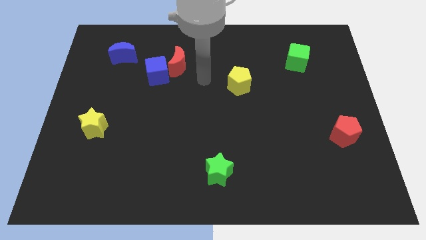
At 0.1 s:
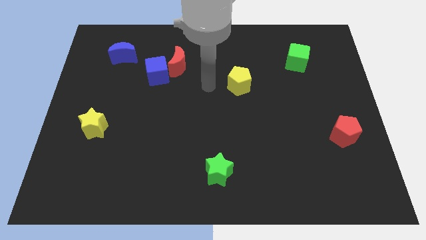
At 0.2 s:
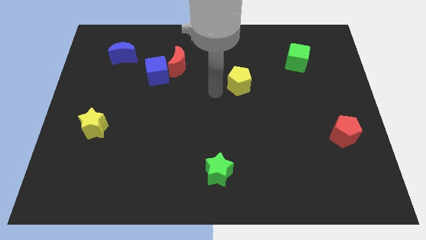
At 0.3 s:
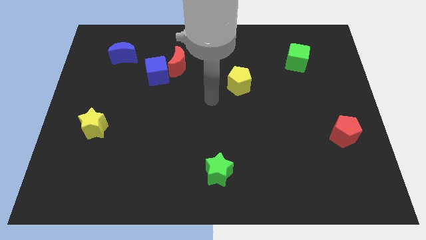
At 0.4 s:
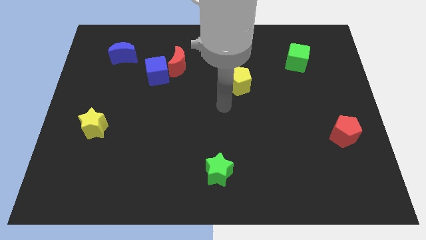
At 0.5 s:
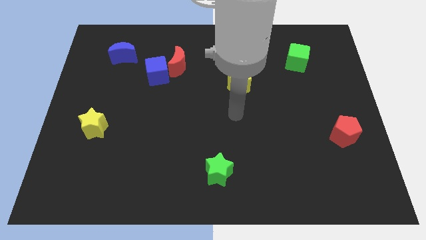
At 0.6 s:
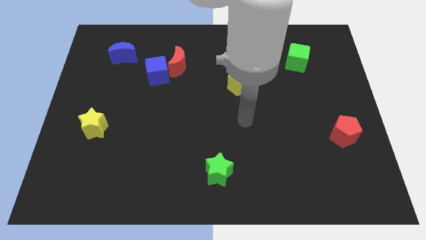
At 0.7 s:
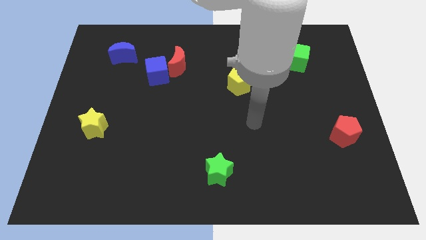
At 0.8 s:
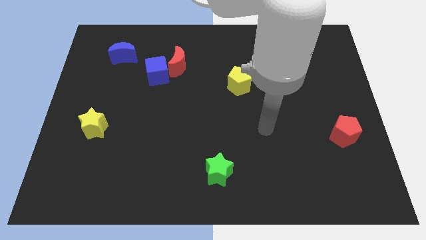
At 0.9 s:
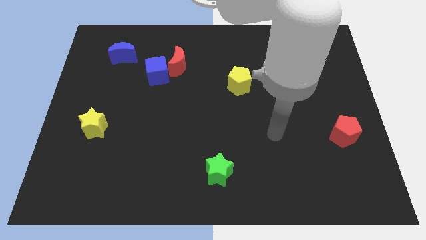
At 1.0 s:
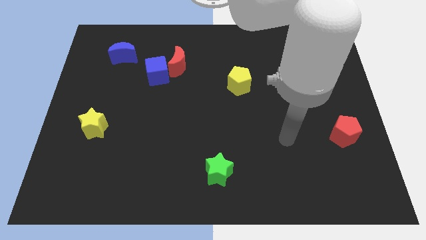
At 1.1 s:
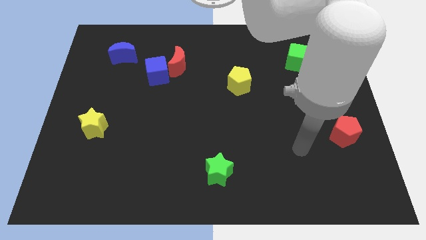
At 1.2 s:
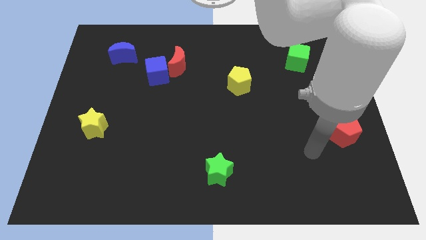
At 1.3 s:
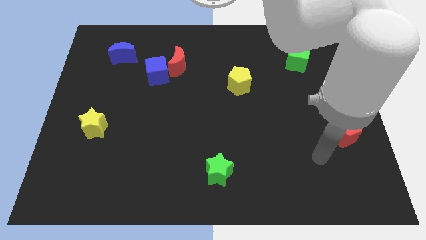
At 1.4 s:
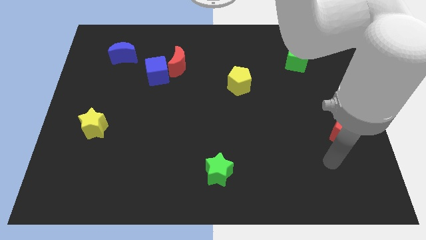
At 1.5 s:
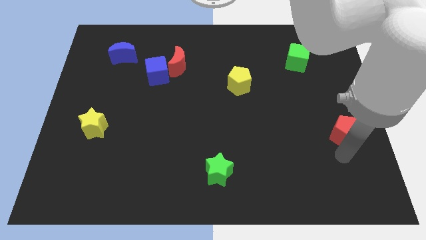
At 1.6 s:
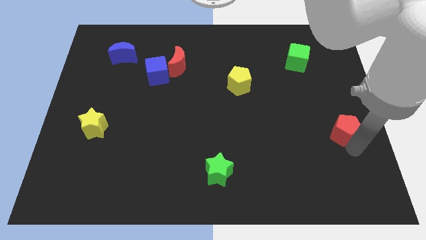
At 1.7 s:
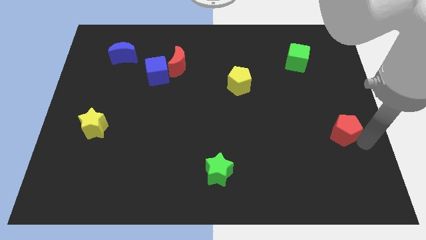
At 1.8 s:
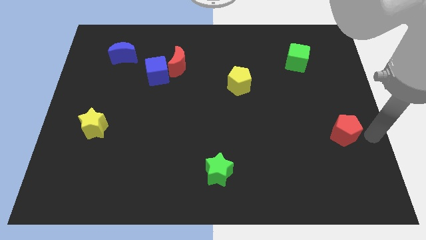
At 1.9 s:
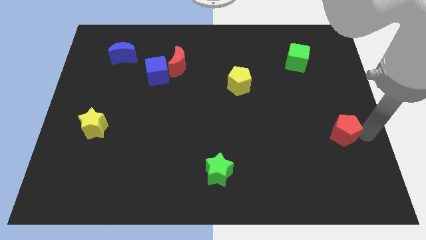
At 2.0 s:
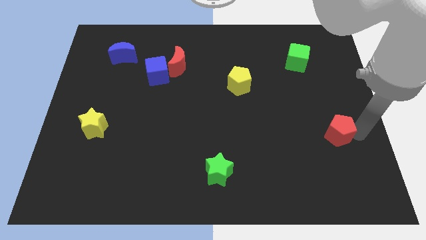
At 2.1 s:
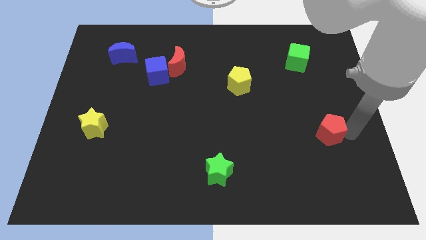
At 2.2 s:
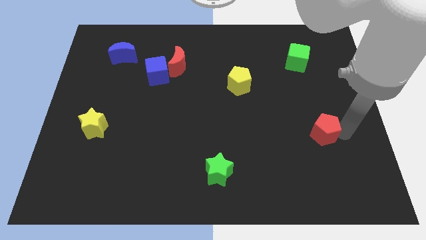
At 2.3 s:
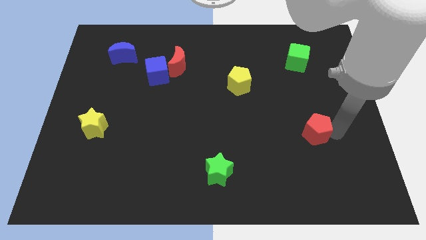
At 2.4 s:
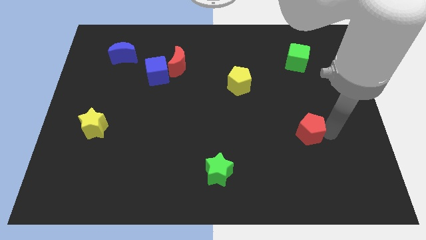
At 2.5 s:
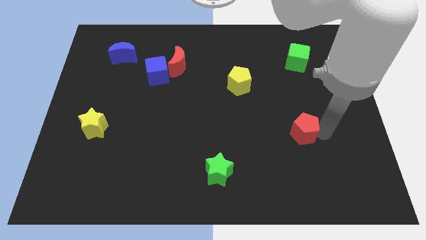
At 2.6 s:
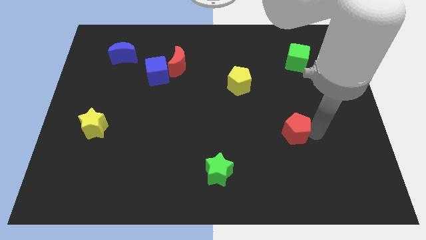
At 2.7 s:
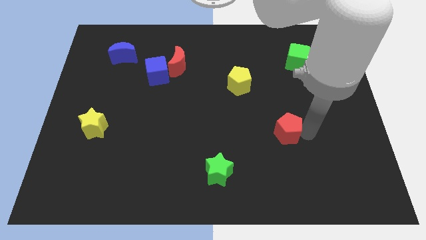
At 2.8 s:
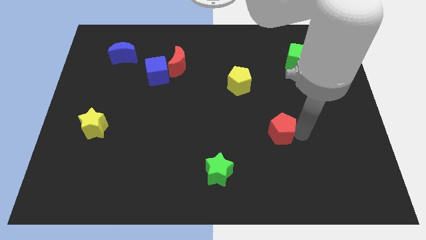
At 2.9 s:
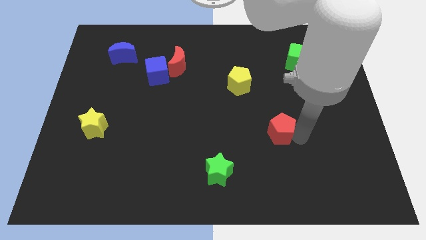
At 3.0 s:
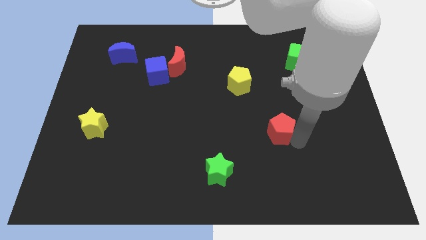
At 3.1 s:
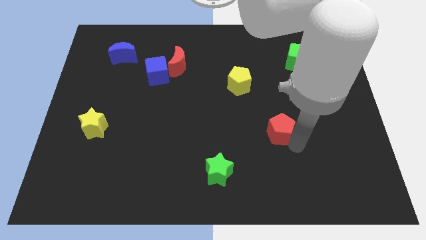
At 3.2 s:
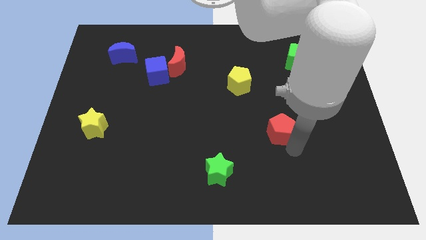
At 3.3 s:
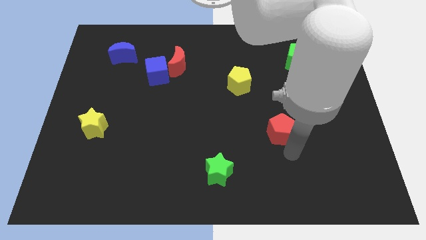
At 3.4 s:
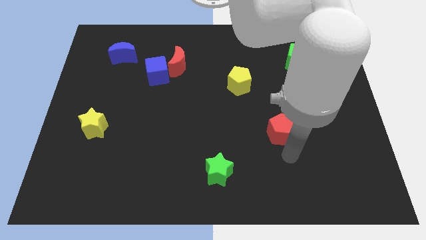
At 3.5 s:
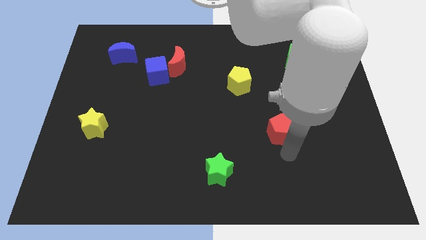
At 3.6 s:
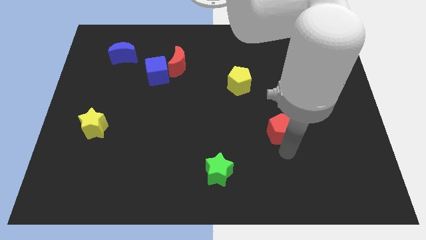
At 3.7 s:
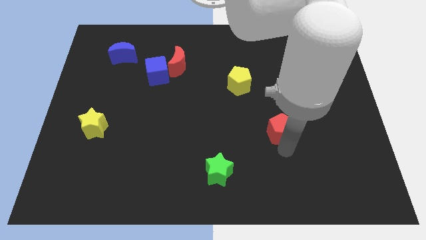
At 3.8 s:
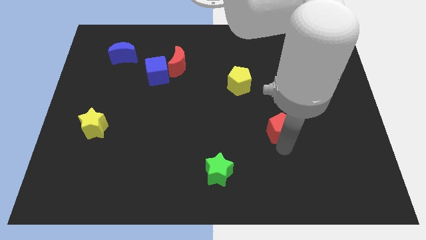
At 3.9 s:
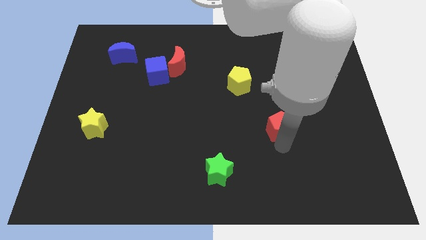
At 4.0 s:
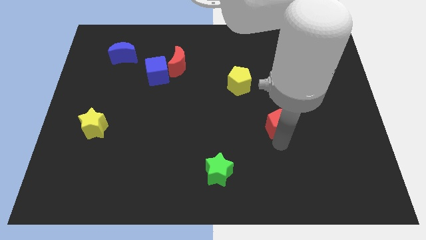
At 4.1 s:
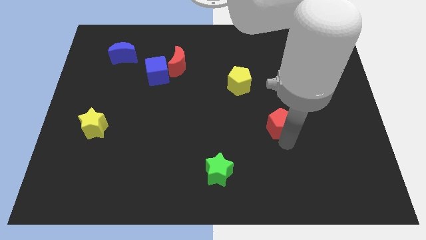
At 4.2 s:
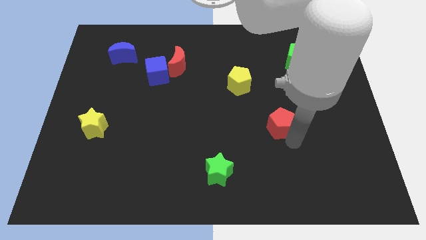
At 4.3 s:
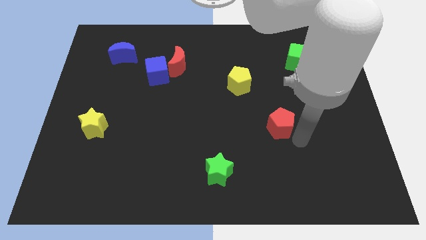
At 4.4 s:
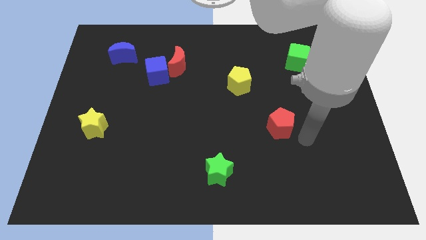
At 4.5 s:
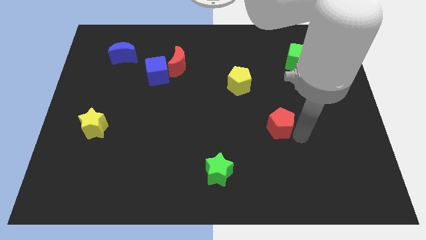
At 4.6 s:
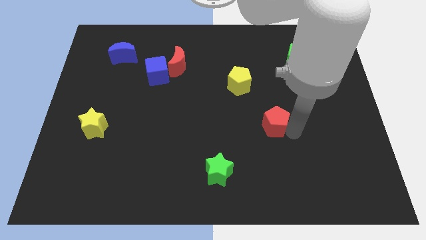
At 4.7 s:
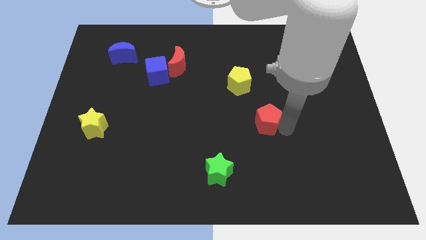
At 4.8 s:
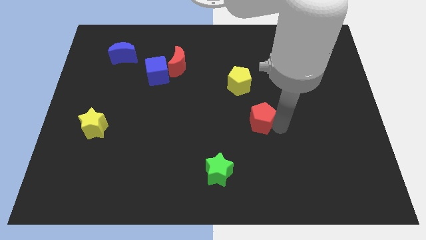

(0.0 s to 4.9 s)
move the red pentagon to the middle

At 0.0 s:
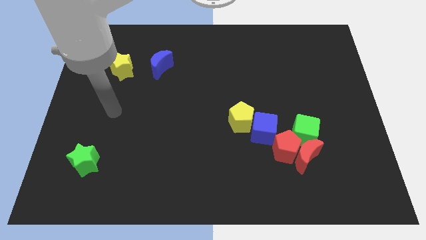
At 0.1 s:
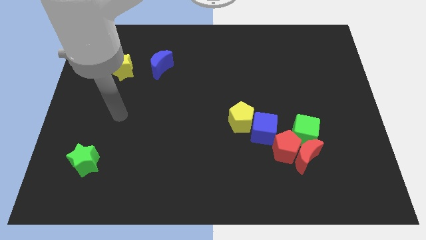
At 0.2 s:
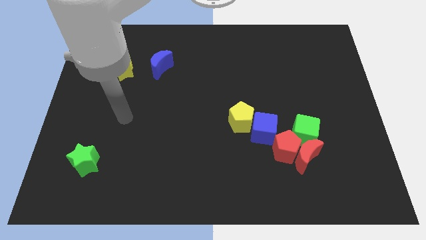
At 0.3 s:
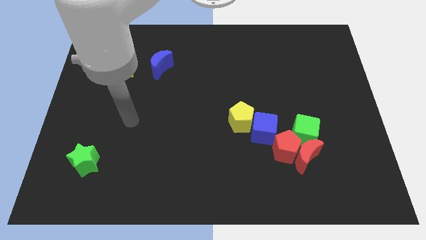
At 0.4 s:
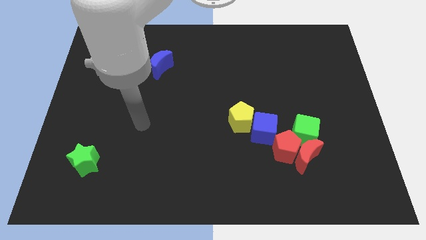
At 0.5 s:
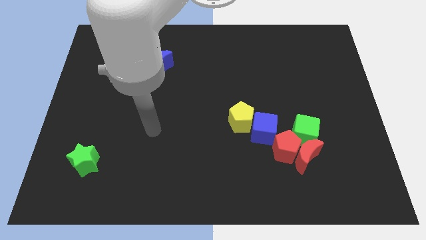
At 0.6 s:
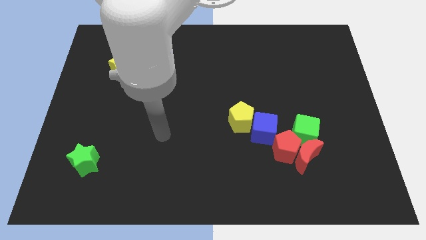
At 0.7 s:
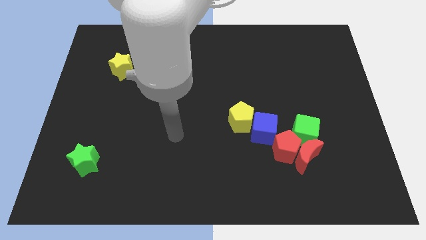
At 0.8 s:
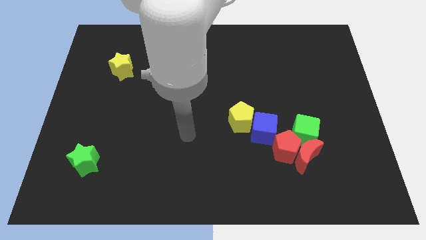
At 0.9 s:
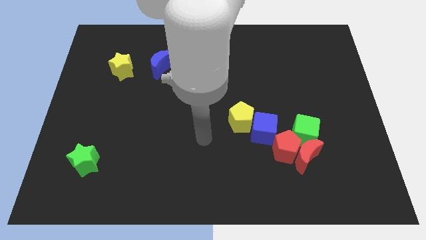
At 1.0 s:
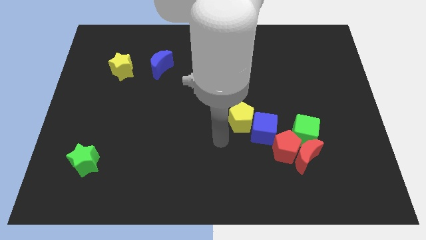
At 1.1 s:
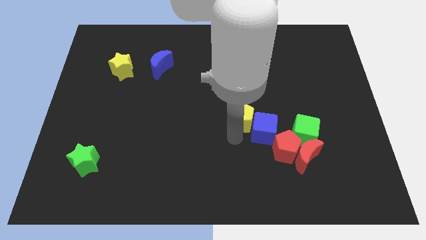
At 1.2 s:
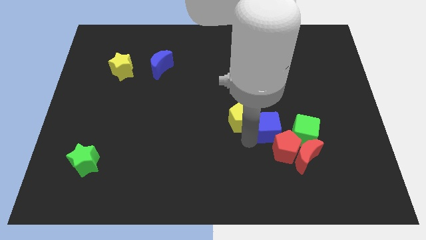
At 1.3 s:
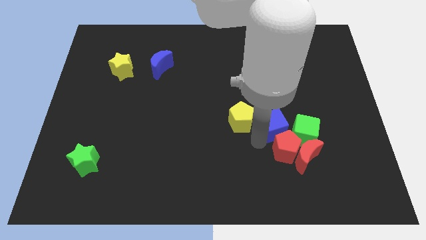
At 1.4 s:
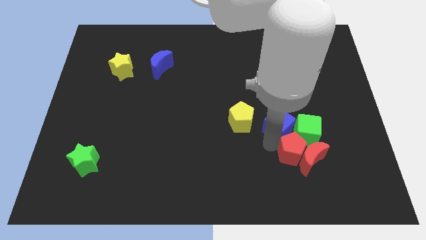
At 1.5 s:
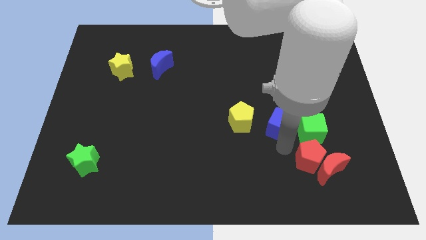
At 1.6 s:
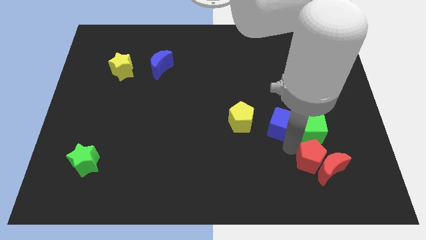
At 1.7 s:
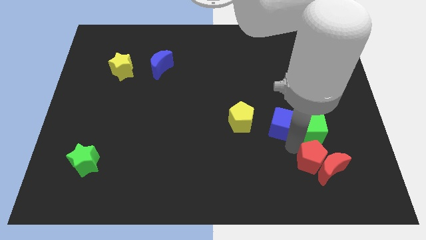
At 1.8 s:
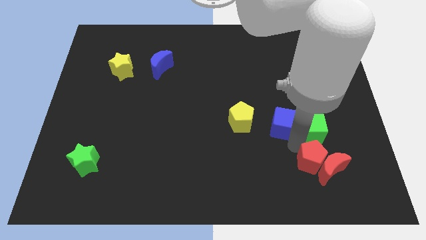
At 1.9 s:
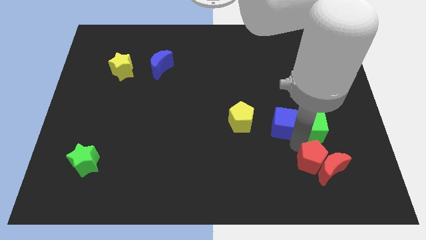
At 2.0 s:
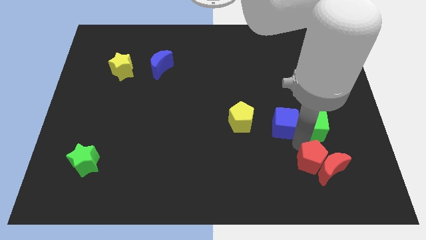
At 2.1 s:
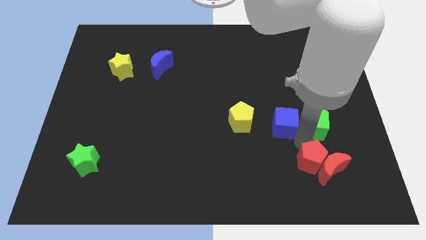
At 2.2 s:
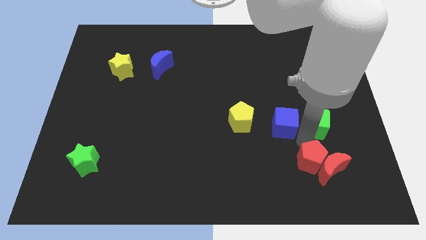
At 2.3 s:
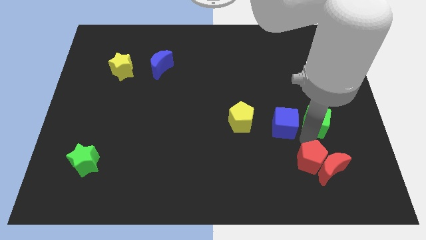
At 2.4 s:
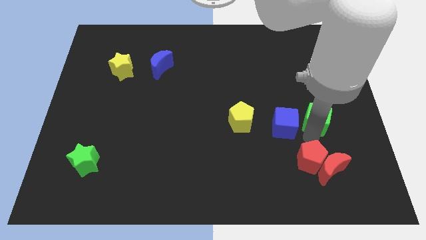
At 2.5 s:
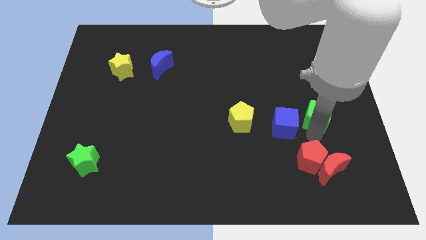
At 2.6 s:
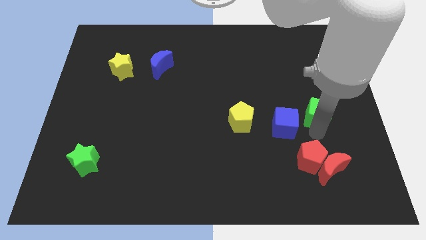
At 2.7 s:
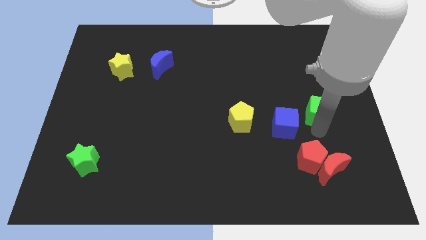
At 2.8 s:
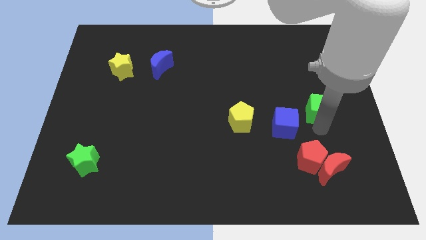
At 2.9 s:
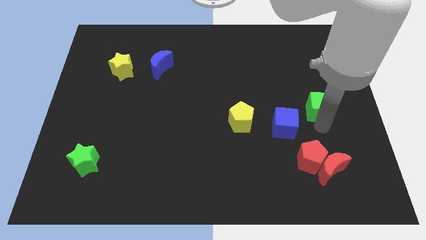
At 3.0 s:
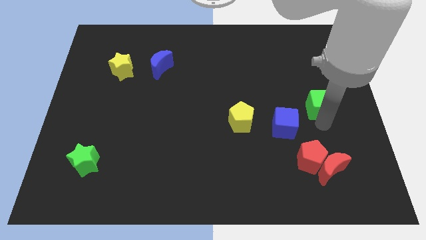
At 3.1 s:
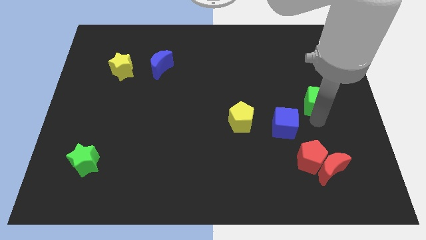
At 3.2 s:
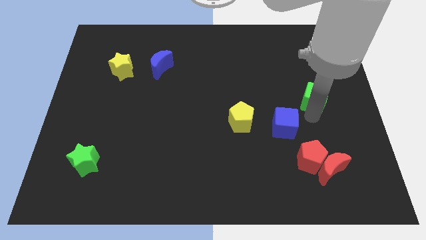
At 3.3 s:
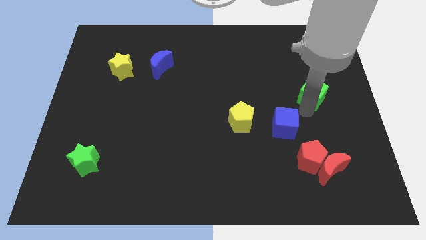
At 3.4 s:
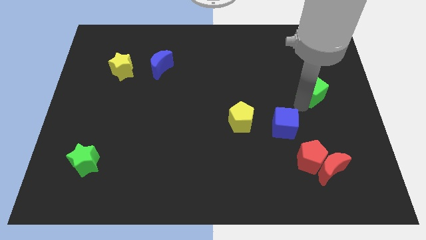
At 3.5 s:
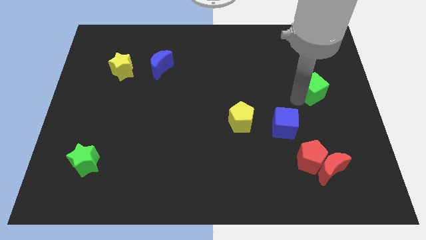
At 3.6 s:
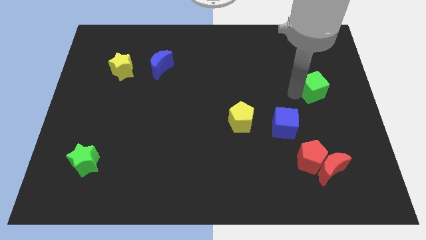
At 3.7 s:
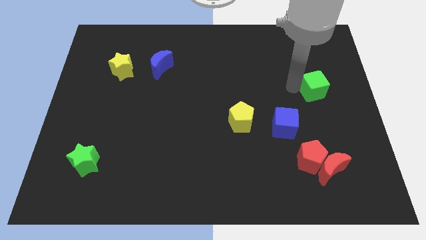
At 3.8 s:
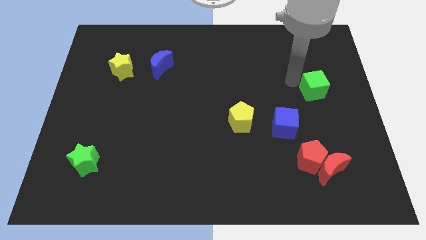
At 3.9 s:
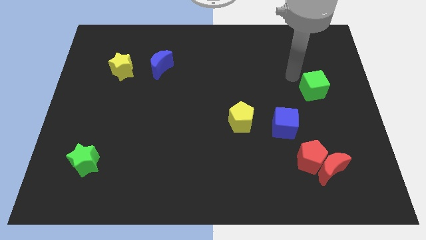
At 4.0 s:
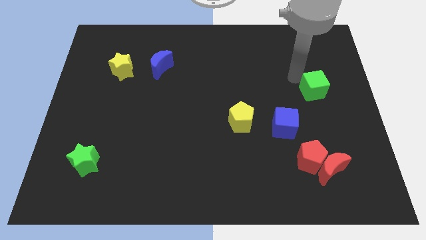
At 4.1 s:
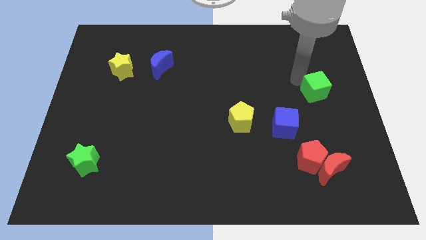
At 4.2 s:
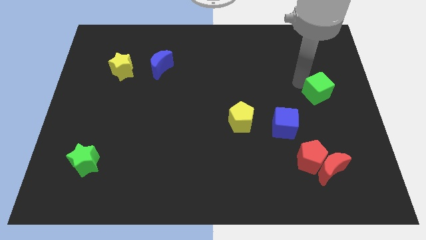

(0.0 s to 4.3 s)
put the green cube to the right side
